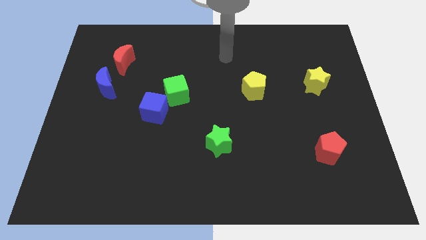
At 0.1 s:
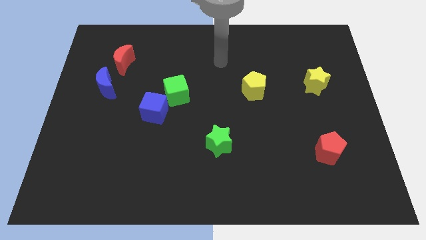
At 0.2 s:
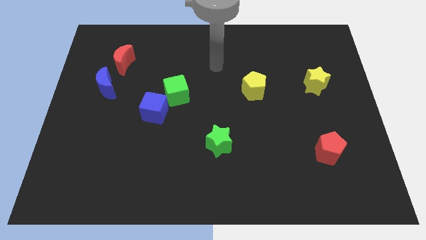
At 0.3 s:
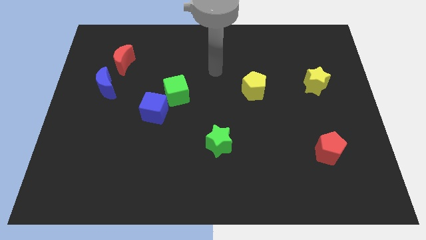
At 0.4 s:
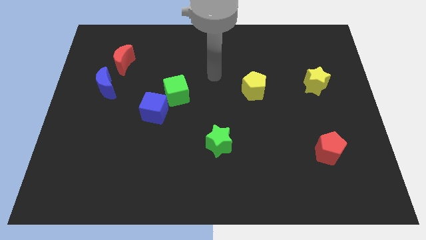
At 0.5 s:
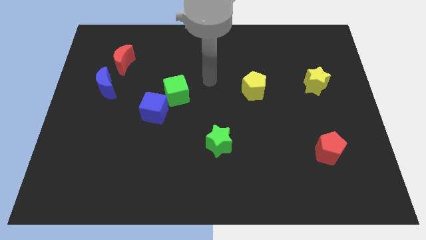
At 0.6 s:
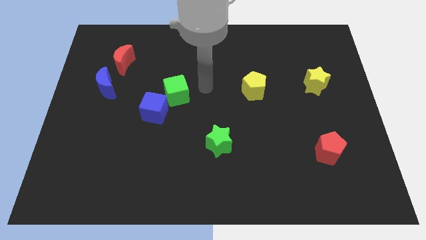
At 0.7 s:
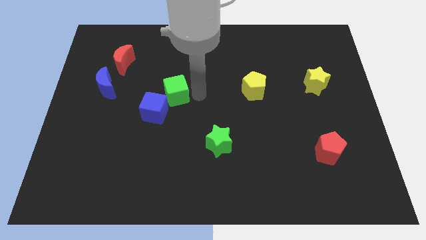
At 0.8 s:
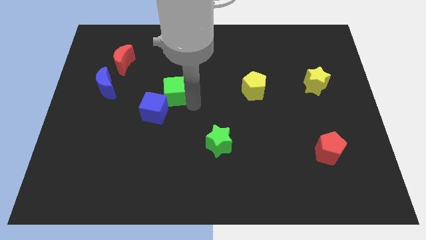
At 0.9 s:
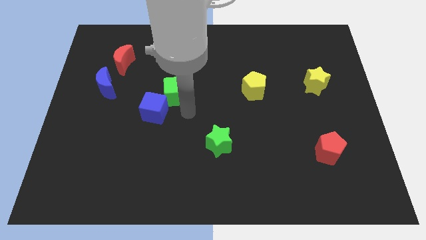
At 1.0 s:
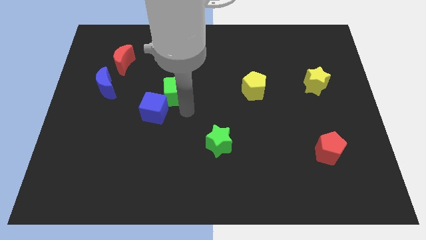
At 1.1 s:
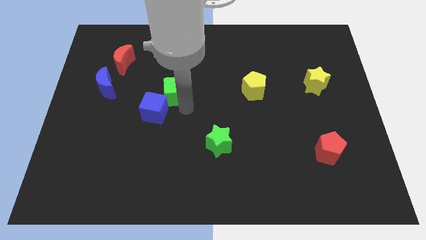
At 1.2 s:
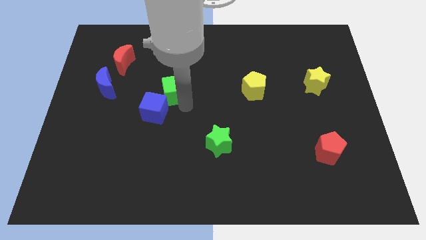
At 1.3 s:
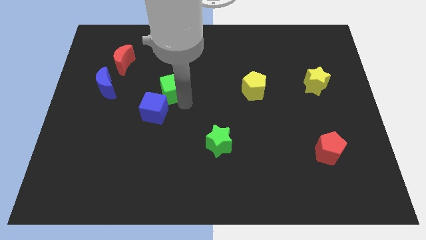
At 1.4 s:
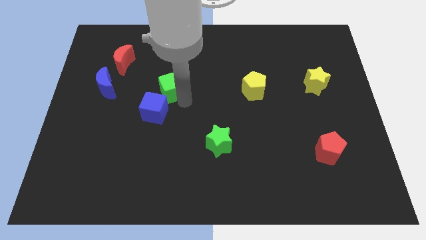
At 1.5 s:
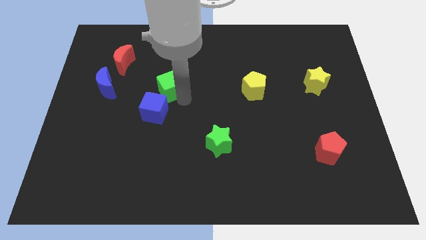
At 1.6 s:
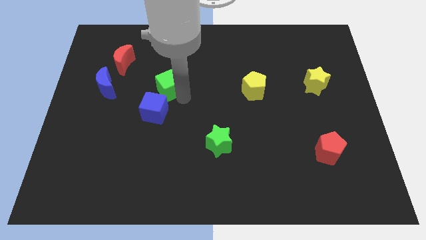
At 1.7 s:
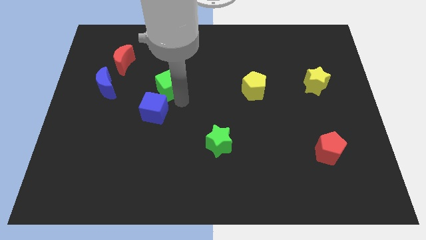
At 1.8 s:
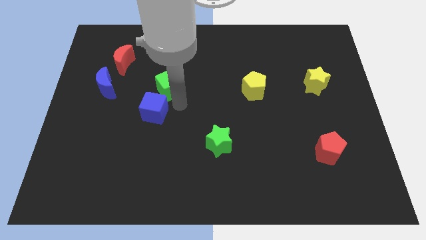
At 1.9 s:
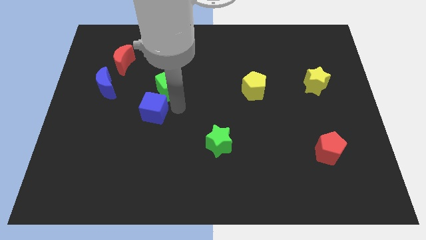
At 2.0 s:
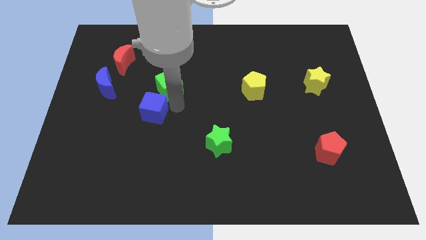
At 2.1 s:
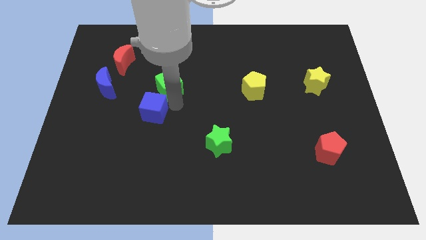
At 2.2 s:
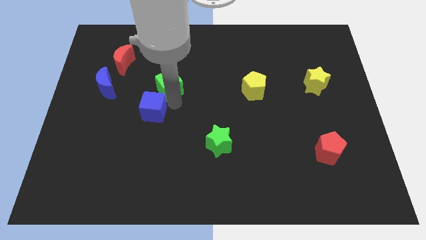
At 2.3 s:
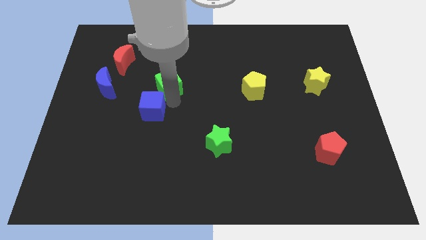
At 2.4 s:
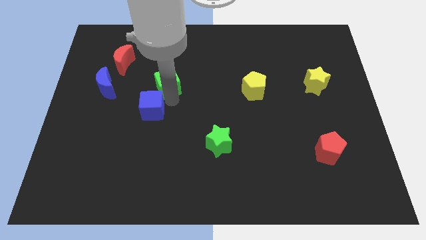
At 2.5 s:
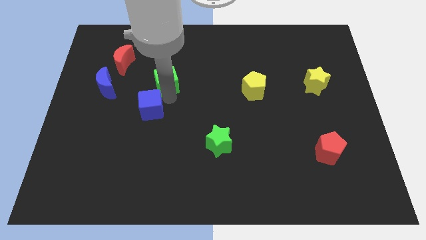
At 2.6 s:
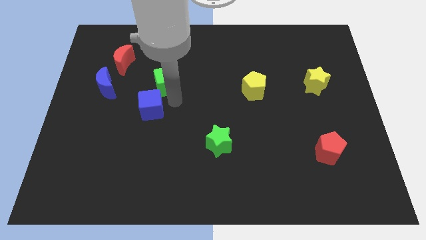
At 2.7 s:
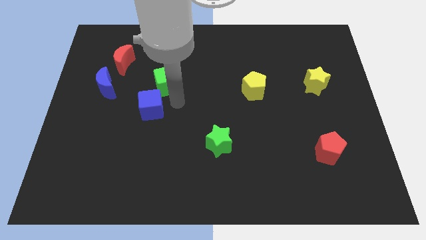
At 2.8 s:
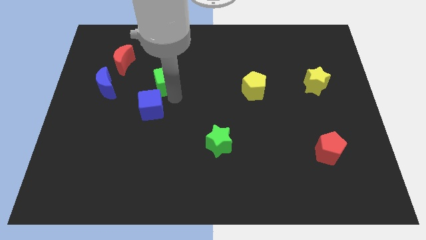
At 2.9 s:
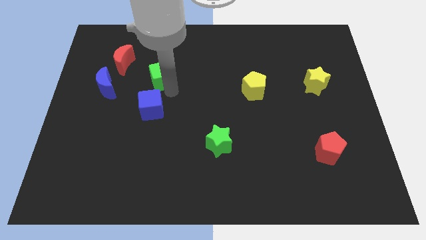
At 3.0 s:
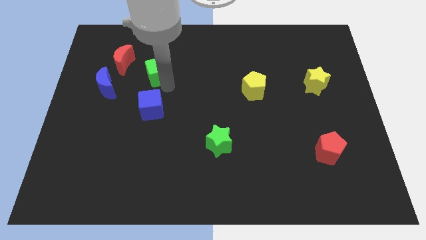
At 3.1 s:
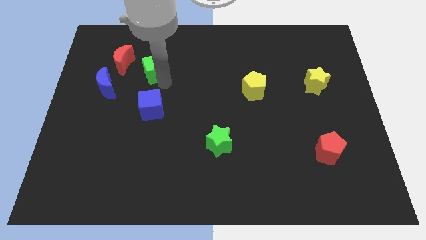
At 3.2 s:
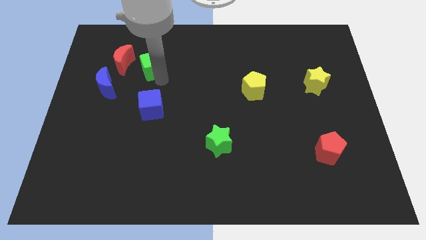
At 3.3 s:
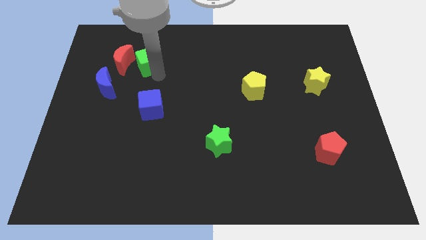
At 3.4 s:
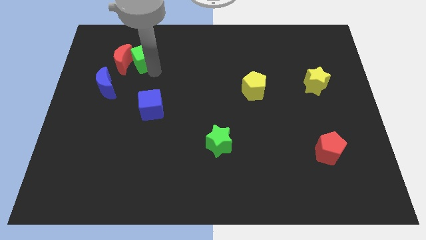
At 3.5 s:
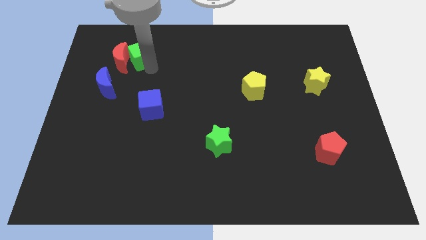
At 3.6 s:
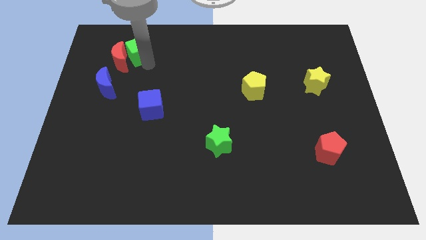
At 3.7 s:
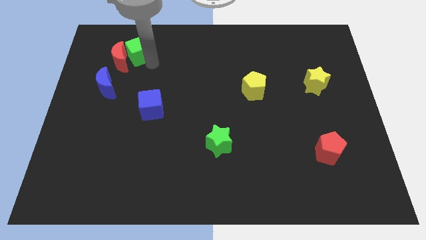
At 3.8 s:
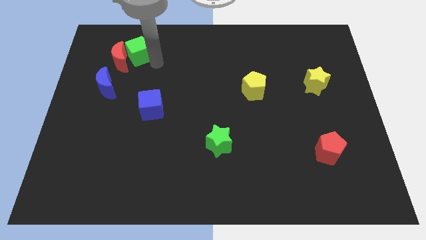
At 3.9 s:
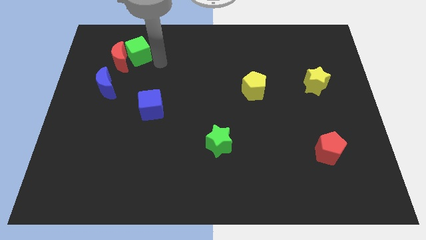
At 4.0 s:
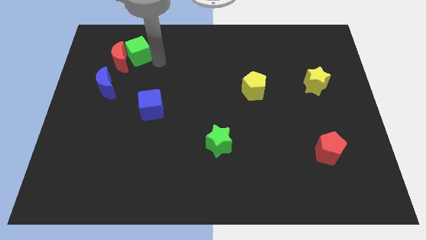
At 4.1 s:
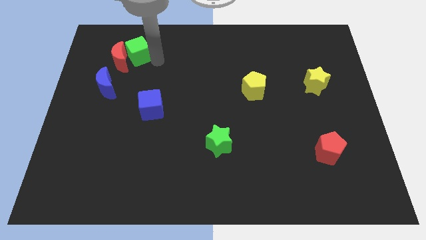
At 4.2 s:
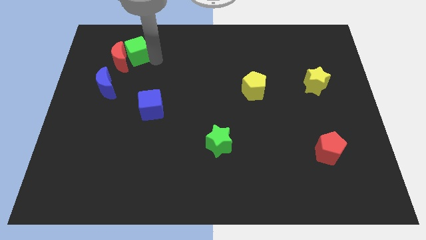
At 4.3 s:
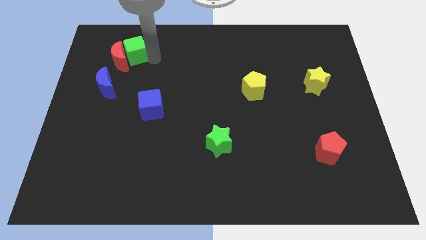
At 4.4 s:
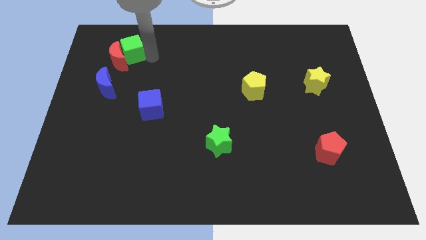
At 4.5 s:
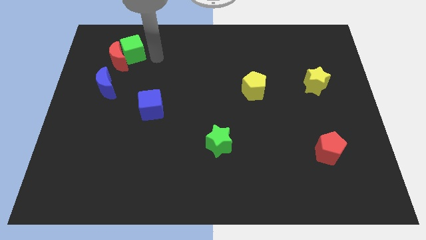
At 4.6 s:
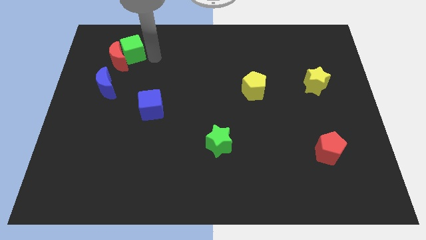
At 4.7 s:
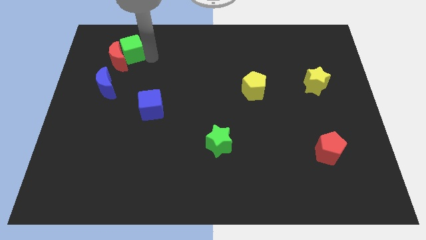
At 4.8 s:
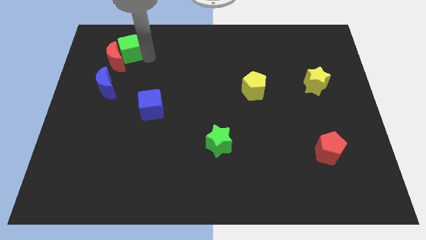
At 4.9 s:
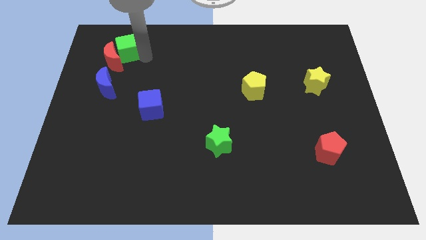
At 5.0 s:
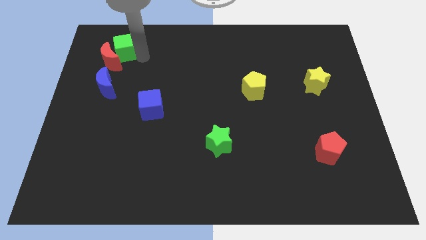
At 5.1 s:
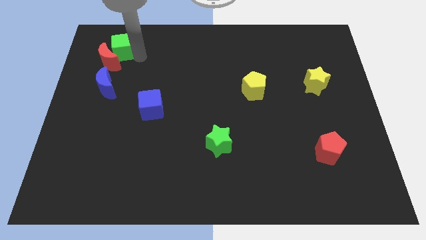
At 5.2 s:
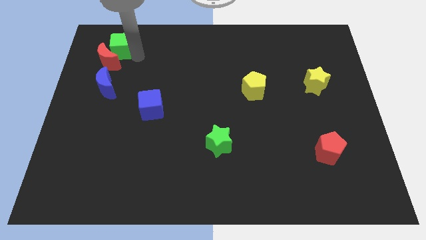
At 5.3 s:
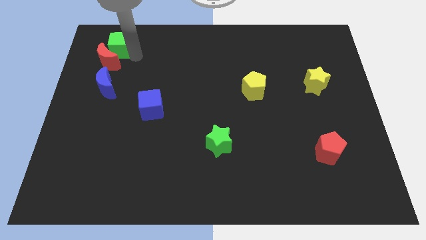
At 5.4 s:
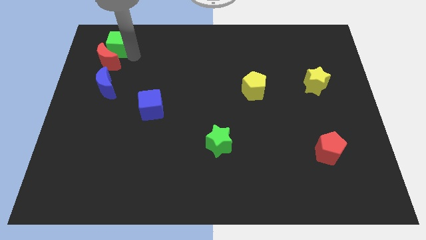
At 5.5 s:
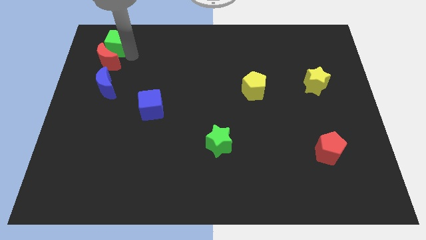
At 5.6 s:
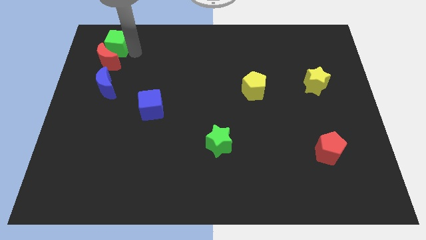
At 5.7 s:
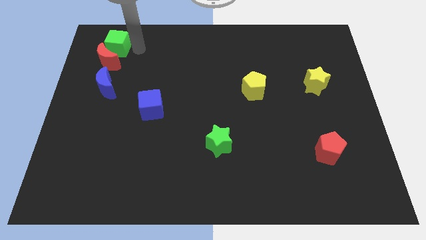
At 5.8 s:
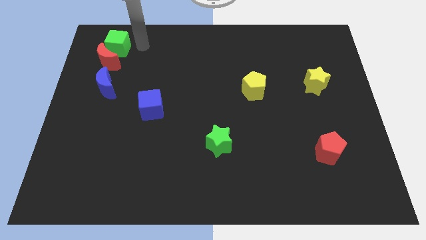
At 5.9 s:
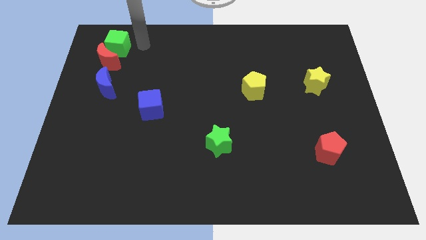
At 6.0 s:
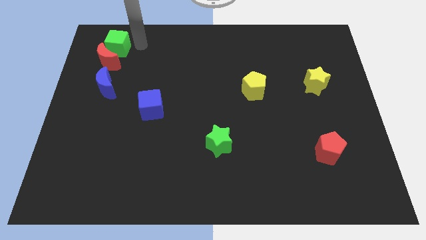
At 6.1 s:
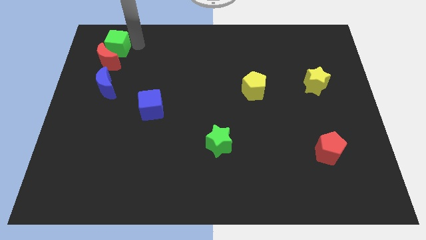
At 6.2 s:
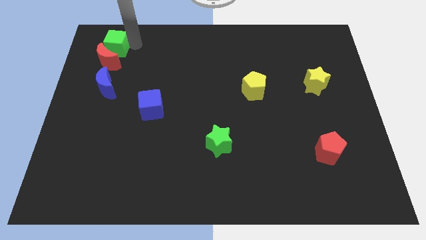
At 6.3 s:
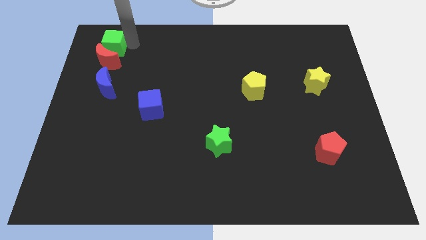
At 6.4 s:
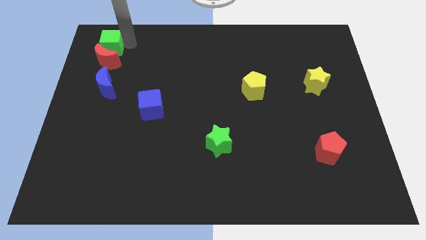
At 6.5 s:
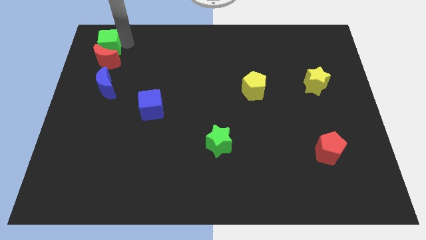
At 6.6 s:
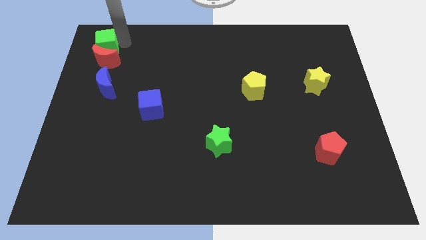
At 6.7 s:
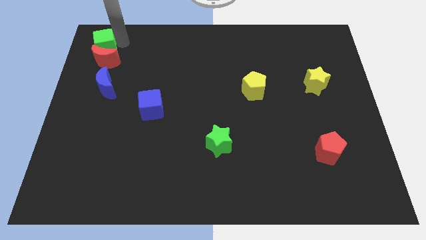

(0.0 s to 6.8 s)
move the green cube to the top left
